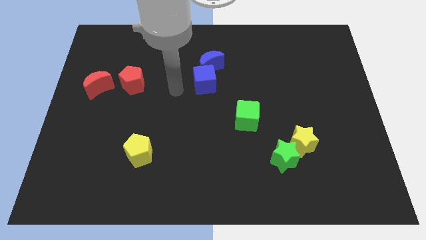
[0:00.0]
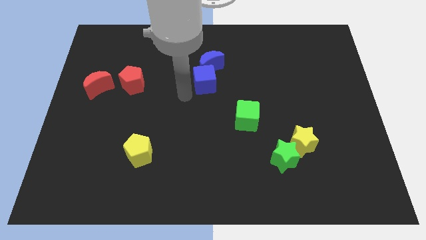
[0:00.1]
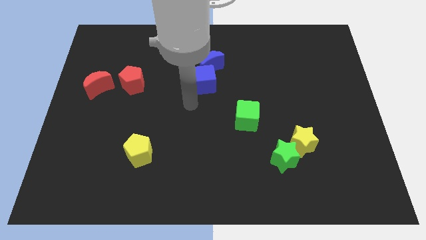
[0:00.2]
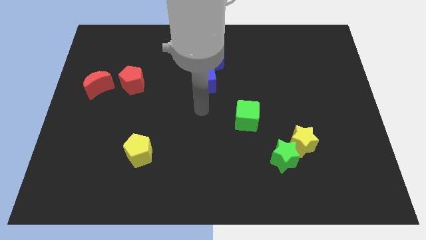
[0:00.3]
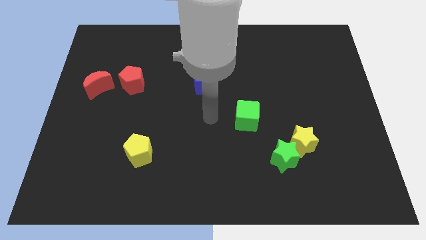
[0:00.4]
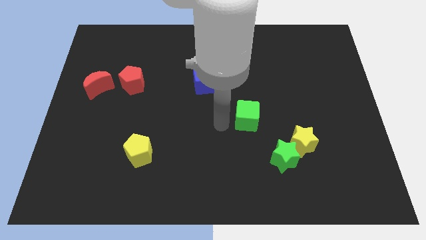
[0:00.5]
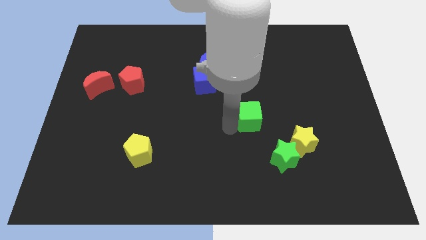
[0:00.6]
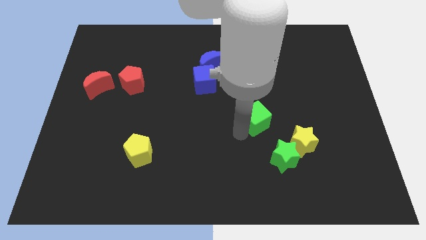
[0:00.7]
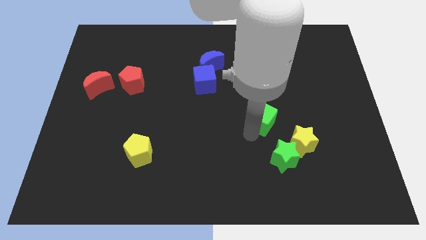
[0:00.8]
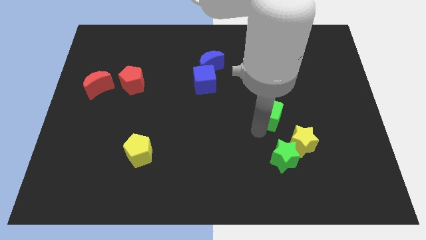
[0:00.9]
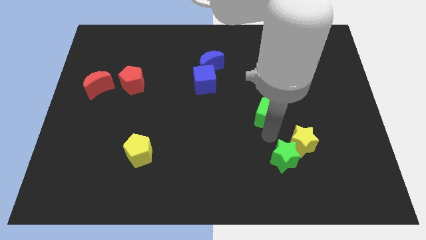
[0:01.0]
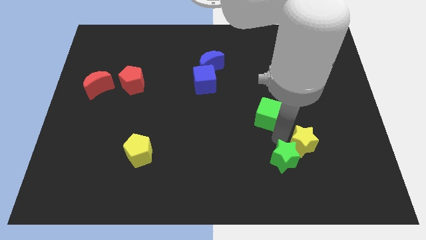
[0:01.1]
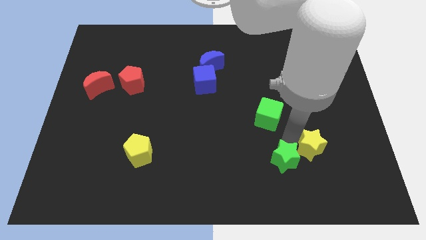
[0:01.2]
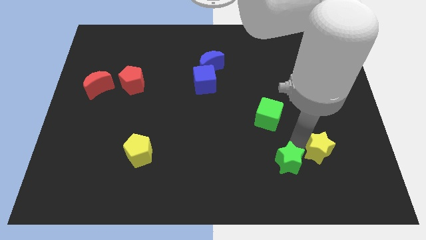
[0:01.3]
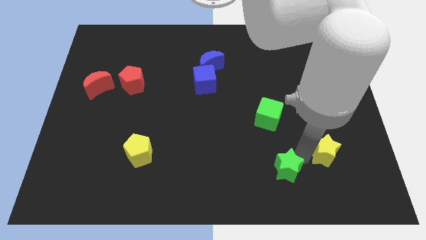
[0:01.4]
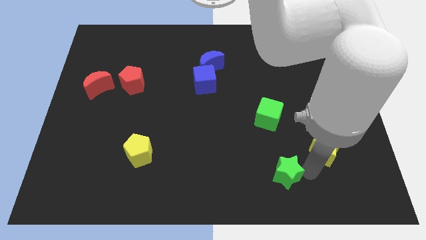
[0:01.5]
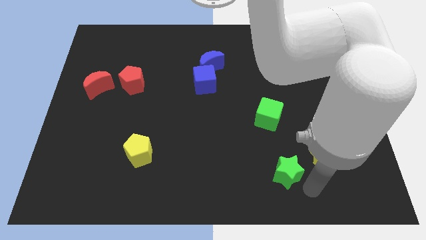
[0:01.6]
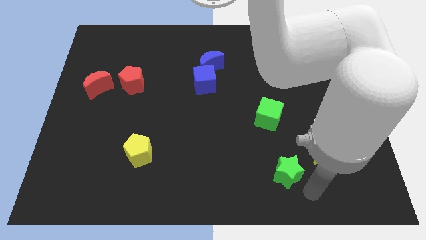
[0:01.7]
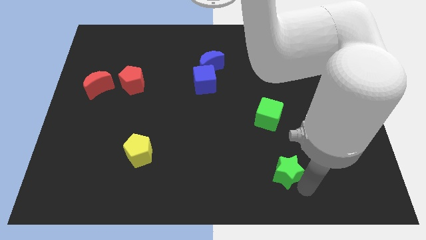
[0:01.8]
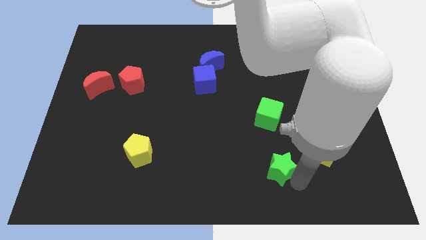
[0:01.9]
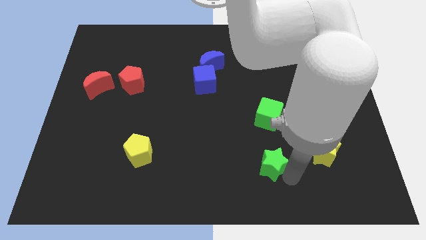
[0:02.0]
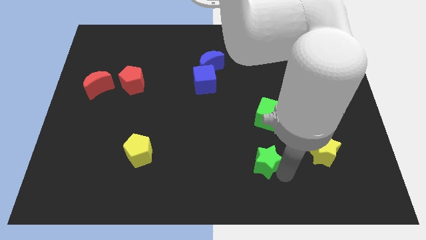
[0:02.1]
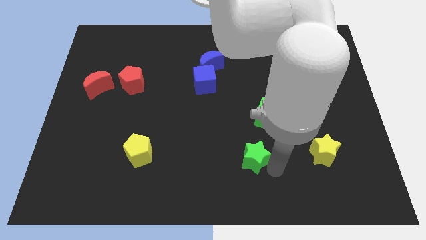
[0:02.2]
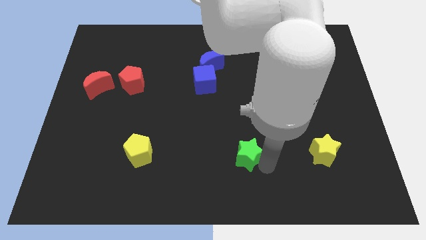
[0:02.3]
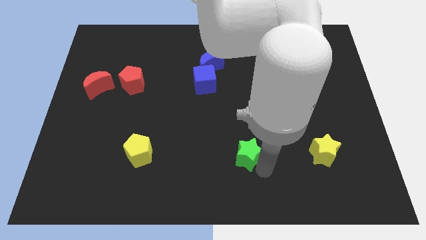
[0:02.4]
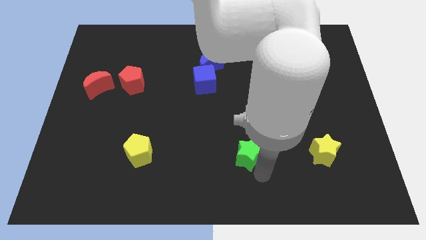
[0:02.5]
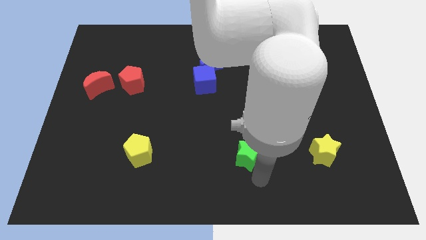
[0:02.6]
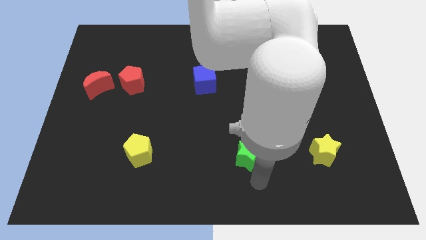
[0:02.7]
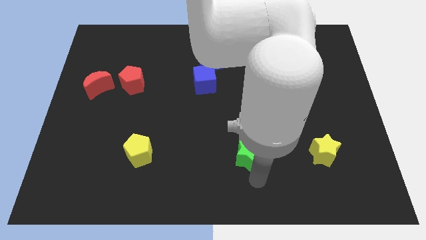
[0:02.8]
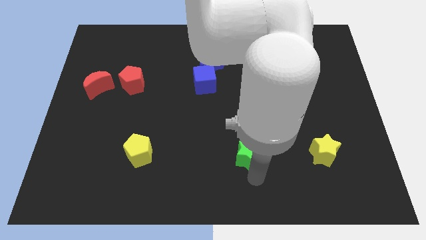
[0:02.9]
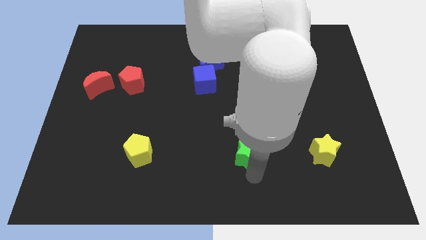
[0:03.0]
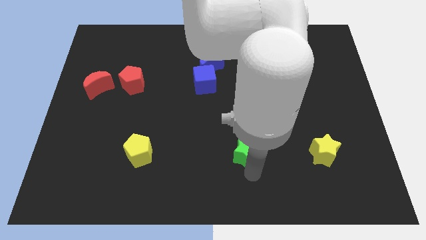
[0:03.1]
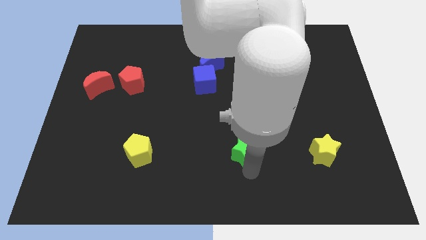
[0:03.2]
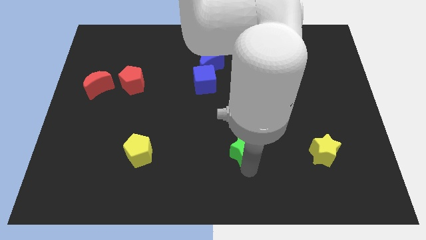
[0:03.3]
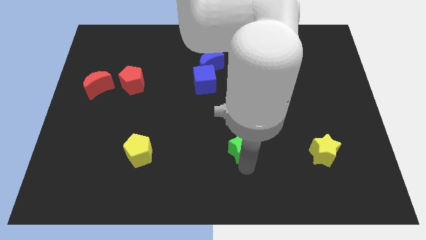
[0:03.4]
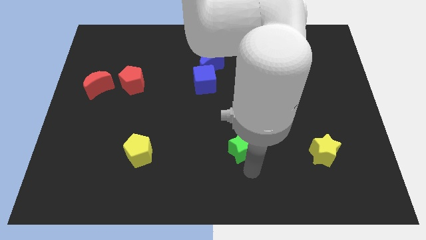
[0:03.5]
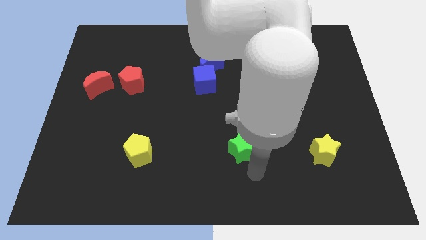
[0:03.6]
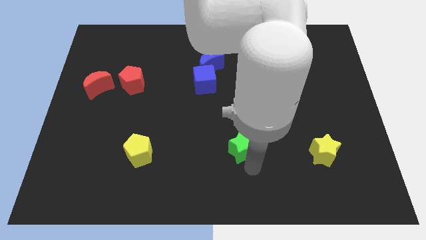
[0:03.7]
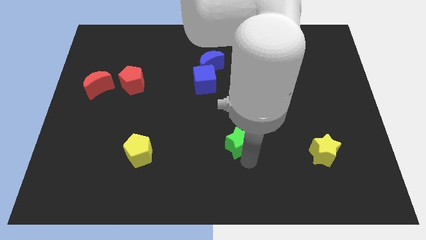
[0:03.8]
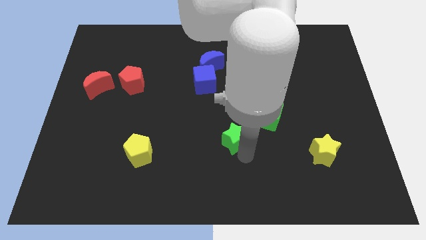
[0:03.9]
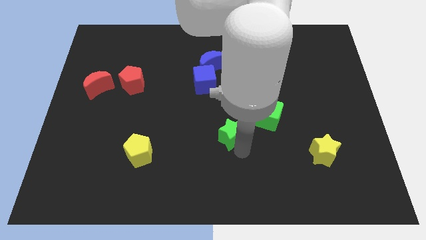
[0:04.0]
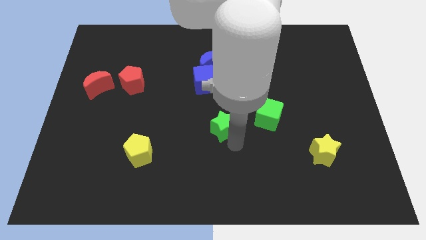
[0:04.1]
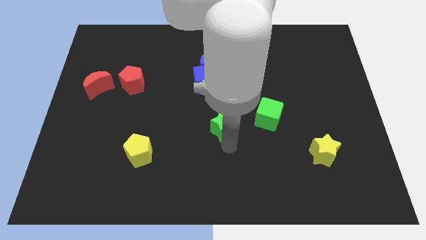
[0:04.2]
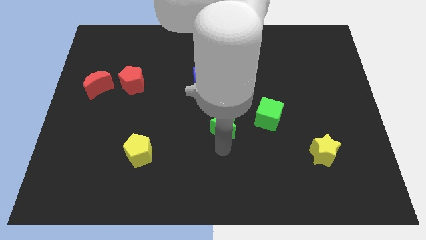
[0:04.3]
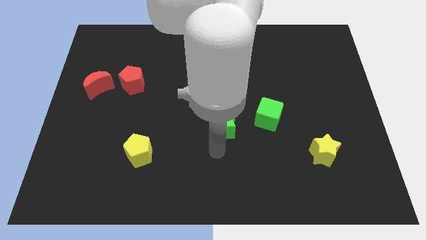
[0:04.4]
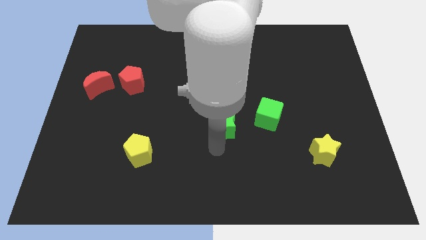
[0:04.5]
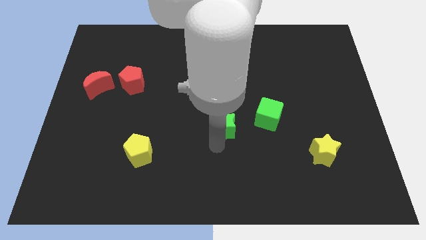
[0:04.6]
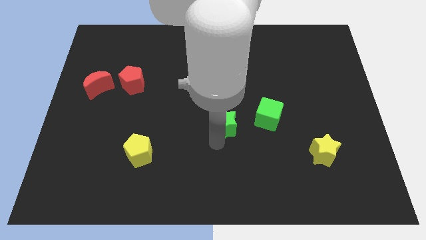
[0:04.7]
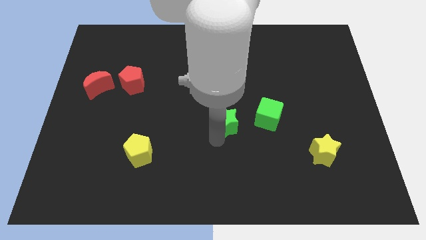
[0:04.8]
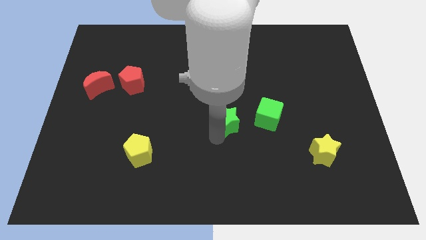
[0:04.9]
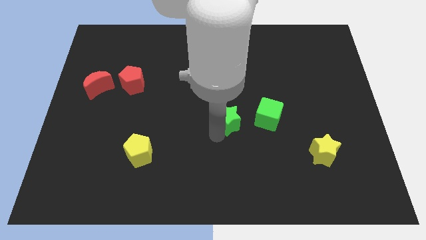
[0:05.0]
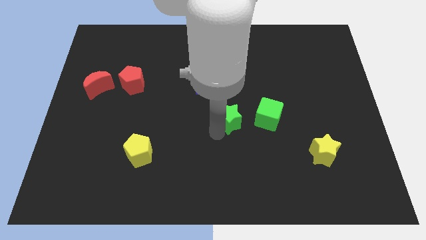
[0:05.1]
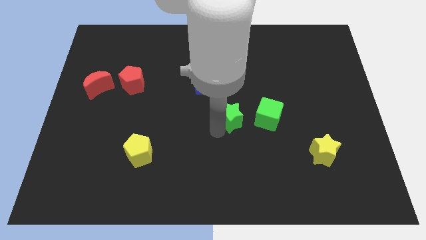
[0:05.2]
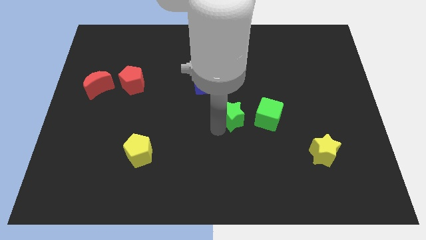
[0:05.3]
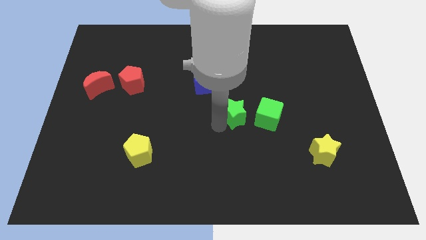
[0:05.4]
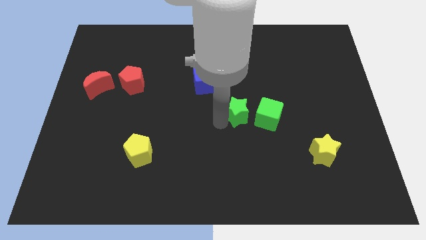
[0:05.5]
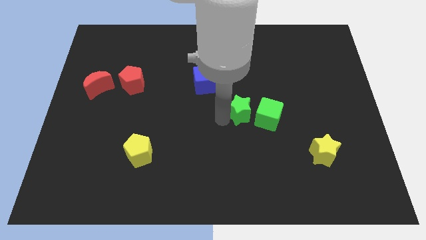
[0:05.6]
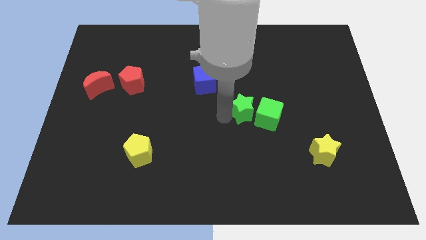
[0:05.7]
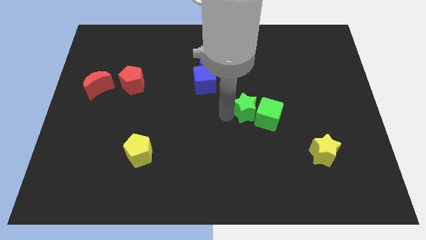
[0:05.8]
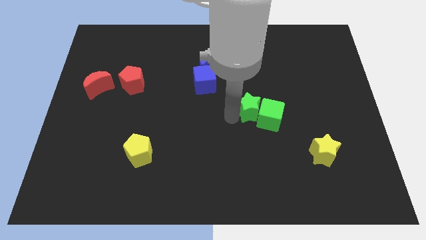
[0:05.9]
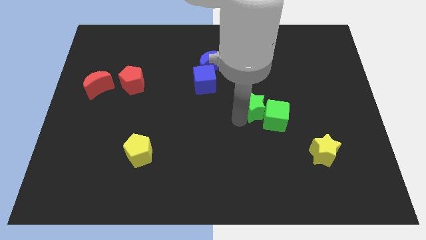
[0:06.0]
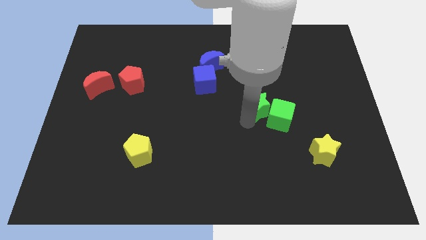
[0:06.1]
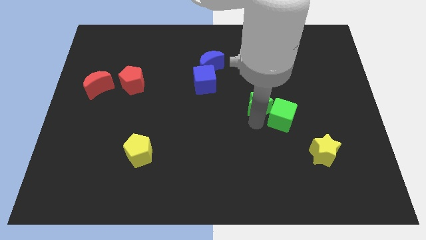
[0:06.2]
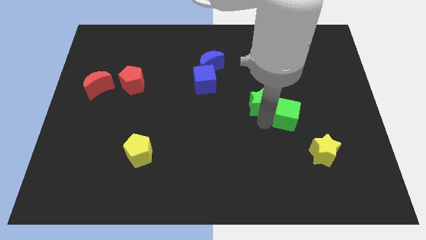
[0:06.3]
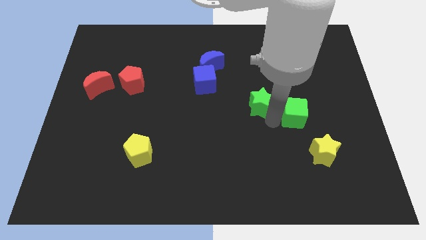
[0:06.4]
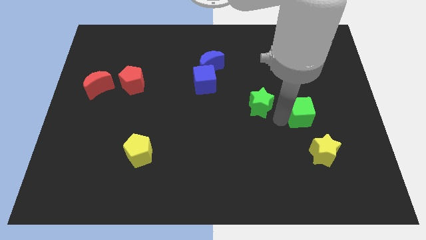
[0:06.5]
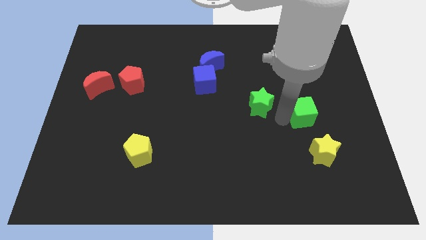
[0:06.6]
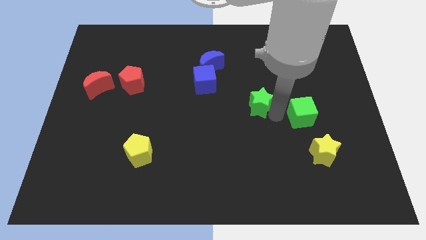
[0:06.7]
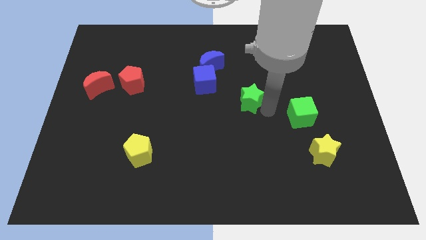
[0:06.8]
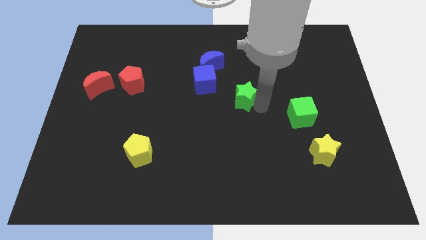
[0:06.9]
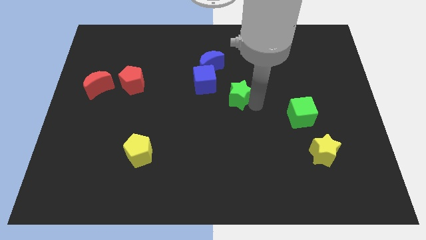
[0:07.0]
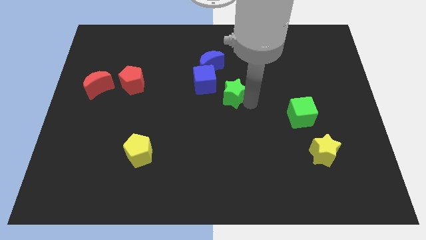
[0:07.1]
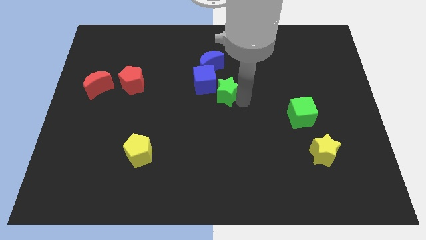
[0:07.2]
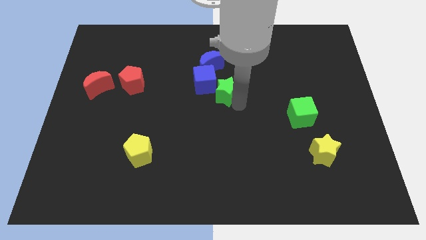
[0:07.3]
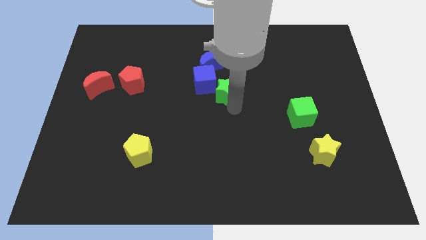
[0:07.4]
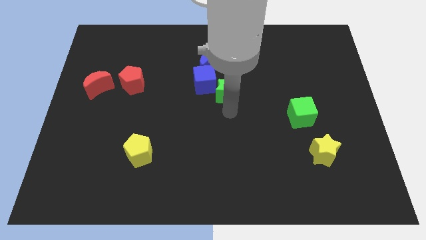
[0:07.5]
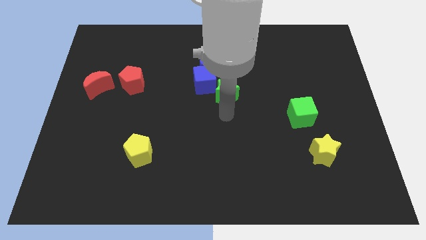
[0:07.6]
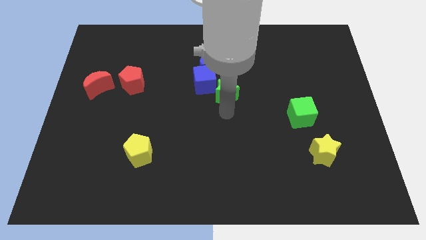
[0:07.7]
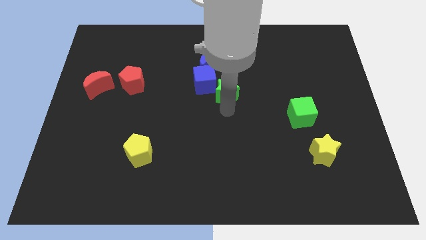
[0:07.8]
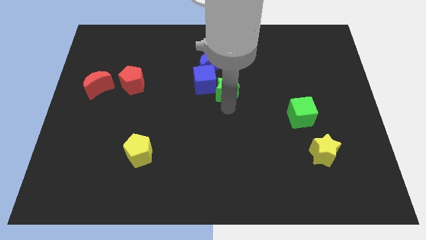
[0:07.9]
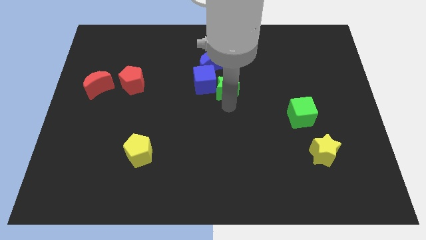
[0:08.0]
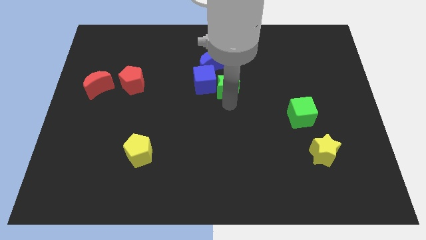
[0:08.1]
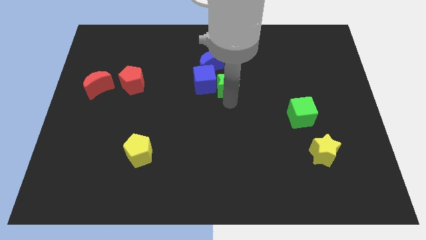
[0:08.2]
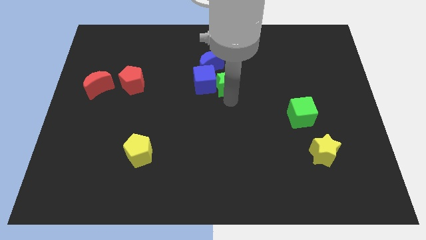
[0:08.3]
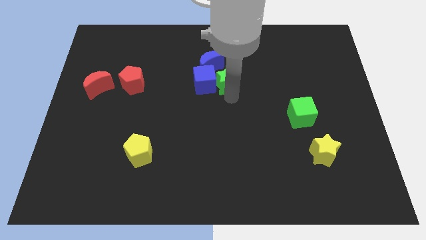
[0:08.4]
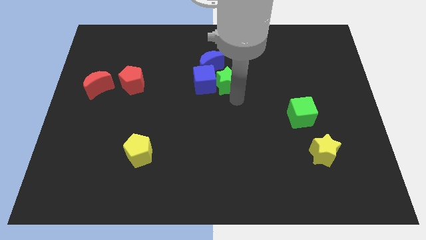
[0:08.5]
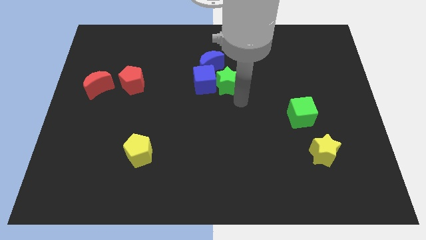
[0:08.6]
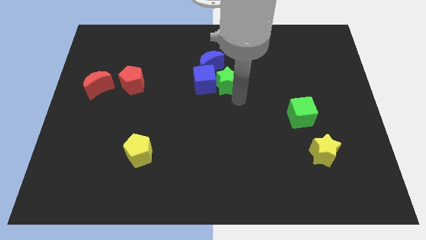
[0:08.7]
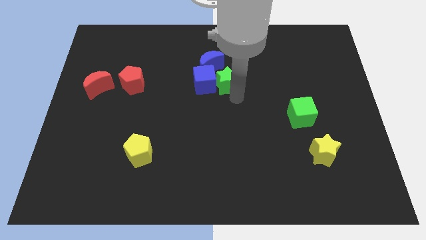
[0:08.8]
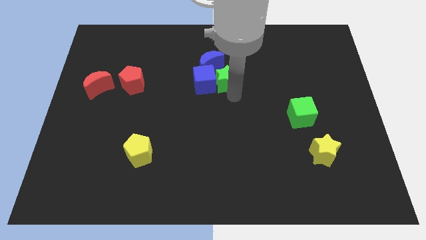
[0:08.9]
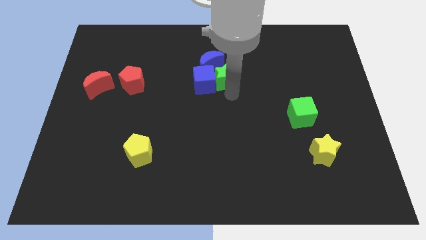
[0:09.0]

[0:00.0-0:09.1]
put the green star close to the blue moon
